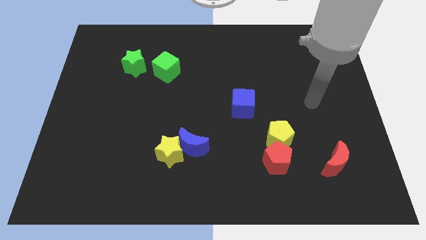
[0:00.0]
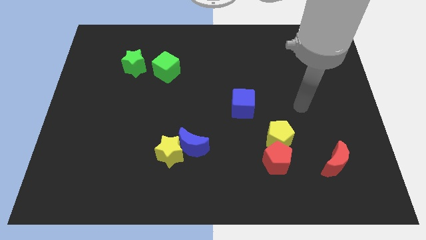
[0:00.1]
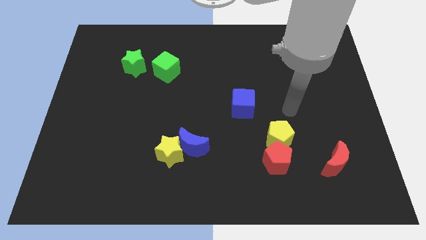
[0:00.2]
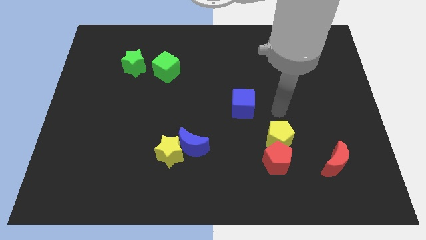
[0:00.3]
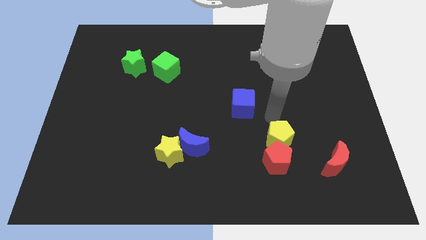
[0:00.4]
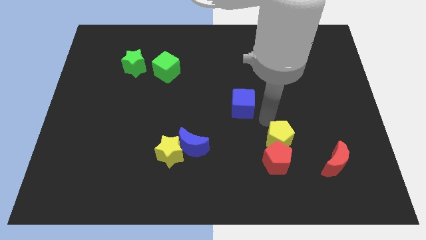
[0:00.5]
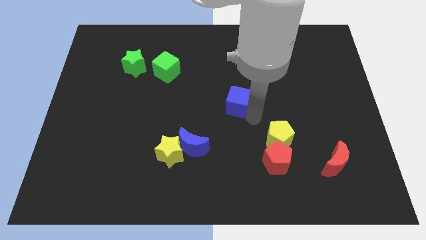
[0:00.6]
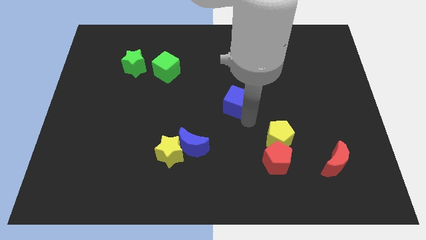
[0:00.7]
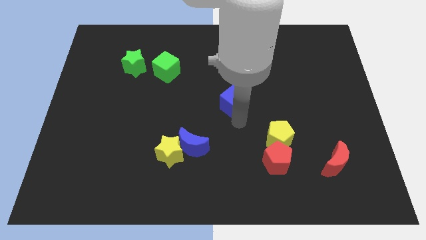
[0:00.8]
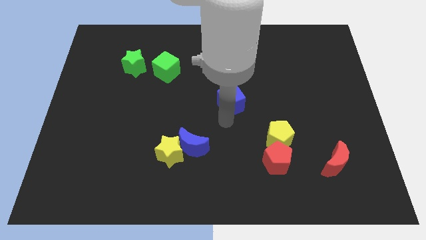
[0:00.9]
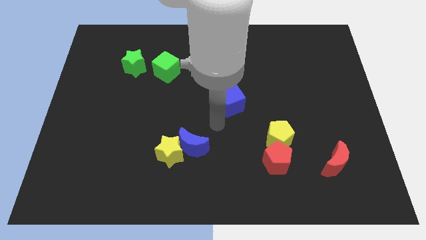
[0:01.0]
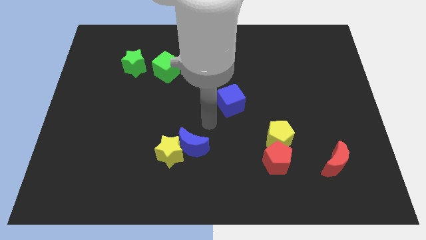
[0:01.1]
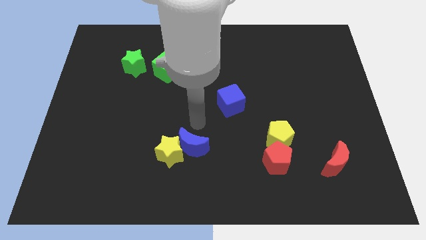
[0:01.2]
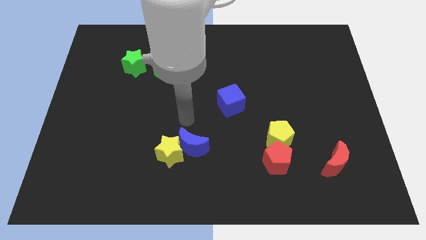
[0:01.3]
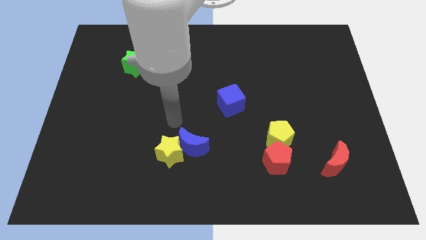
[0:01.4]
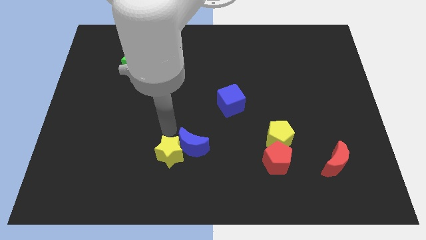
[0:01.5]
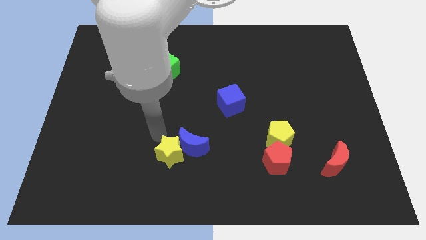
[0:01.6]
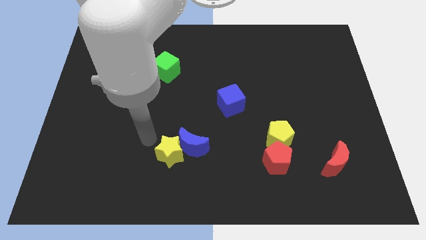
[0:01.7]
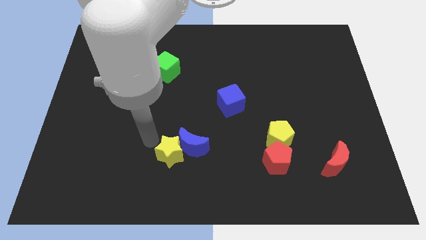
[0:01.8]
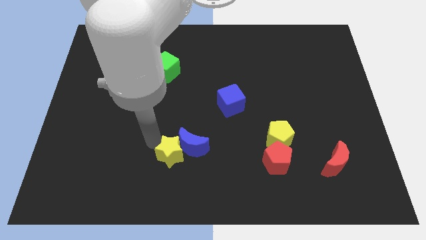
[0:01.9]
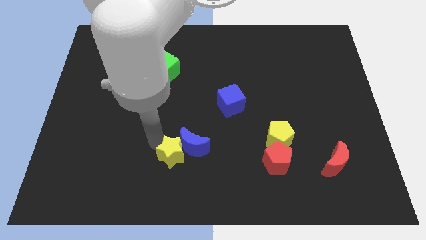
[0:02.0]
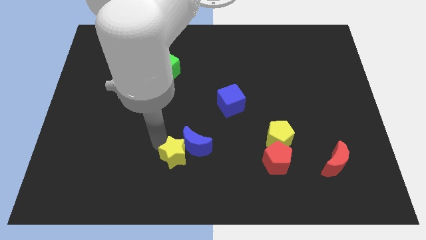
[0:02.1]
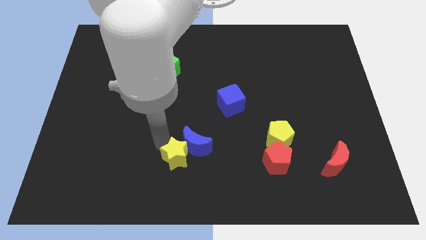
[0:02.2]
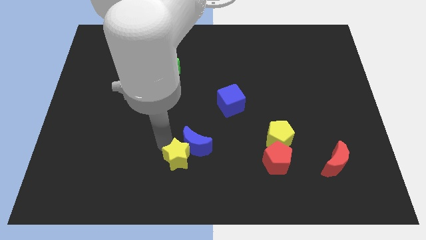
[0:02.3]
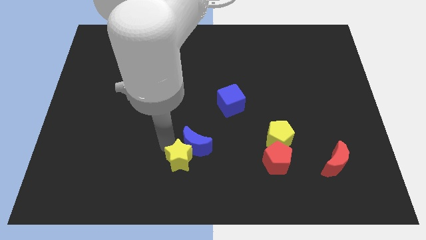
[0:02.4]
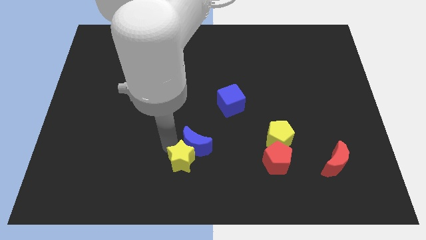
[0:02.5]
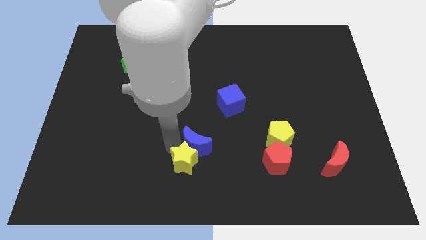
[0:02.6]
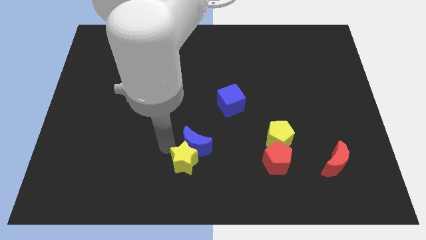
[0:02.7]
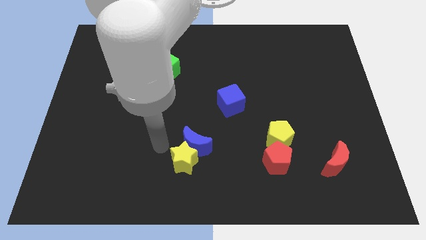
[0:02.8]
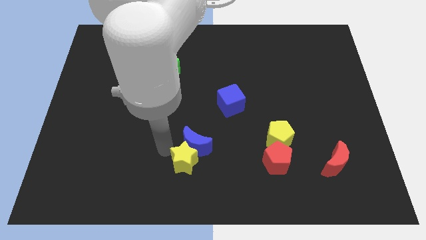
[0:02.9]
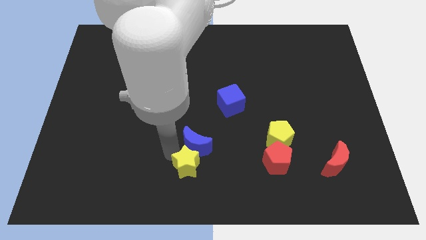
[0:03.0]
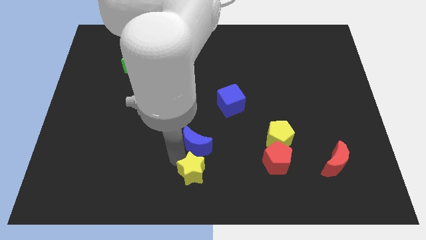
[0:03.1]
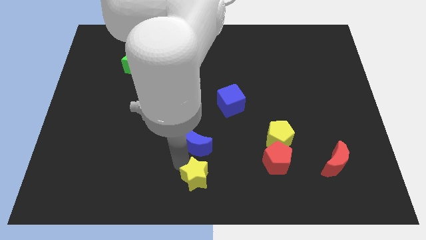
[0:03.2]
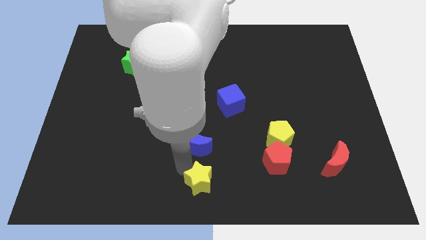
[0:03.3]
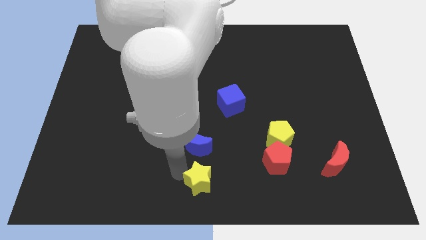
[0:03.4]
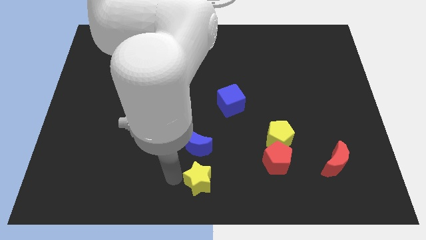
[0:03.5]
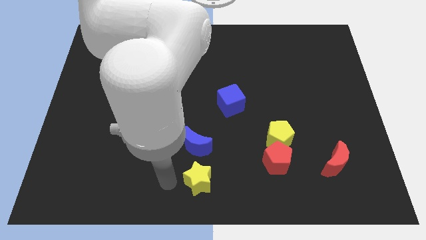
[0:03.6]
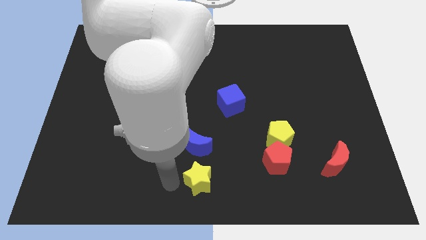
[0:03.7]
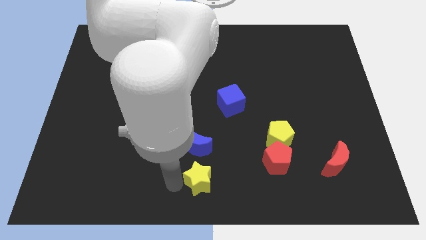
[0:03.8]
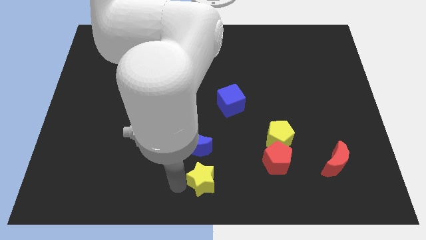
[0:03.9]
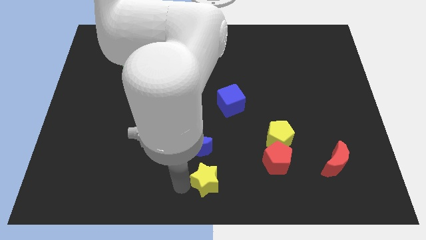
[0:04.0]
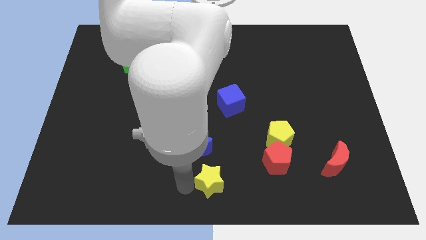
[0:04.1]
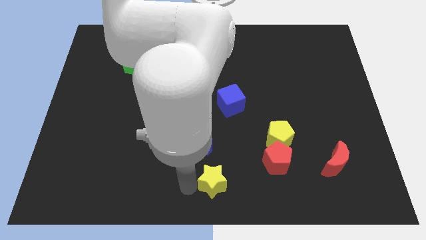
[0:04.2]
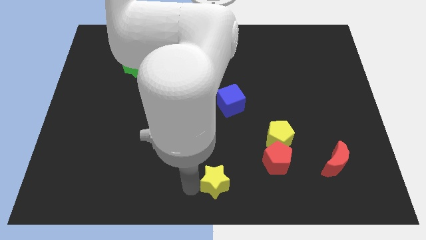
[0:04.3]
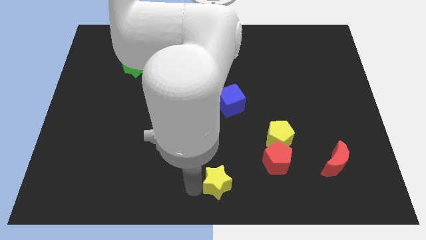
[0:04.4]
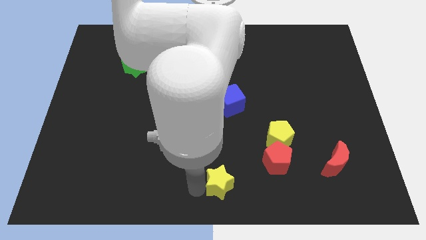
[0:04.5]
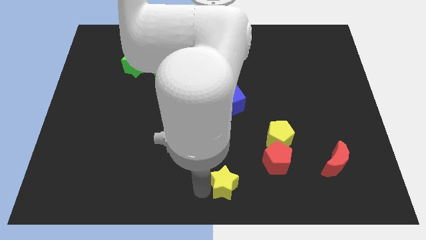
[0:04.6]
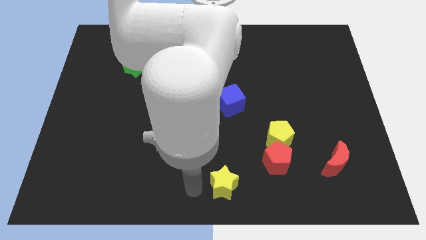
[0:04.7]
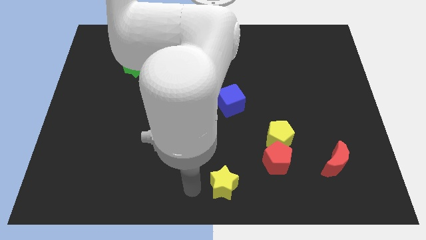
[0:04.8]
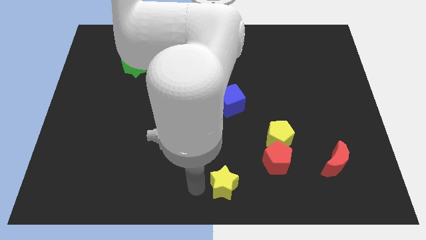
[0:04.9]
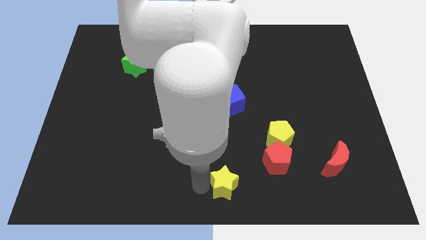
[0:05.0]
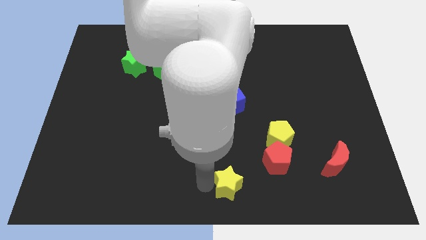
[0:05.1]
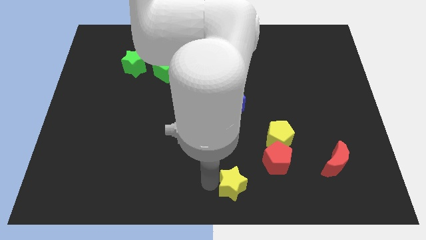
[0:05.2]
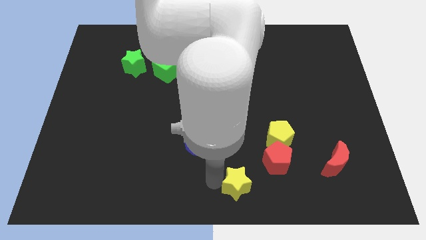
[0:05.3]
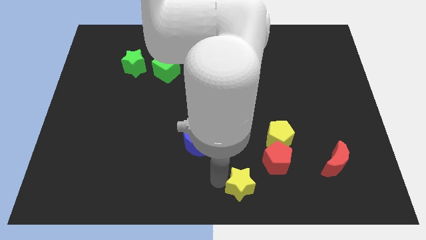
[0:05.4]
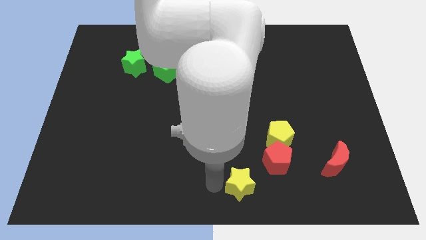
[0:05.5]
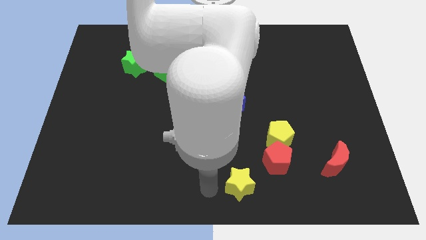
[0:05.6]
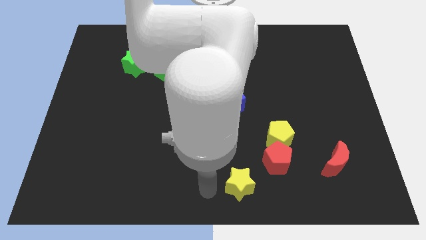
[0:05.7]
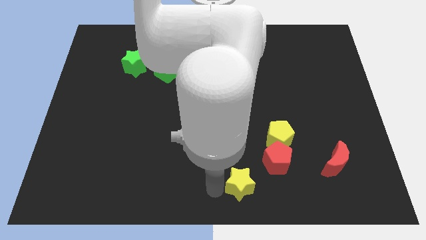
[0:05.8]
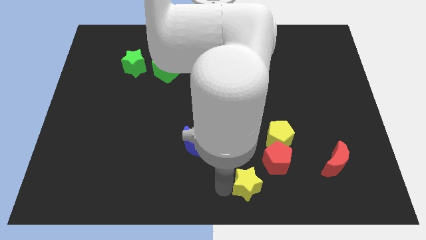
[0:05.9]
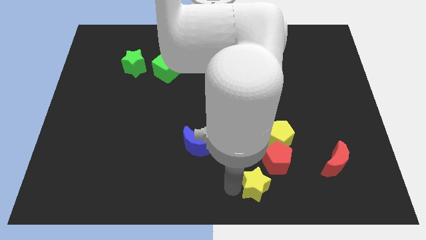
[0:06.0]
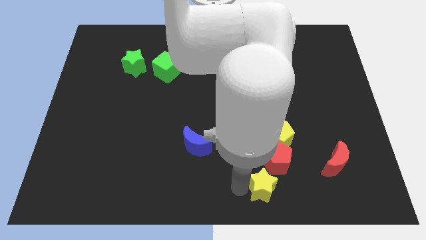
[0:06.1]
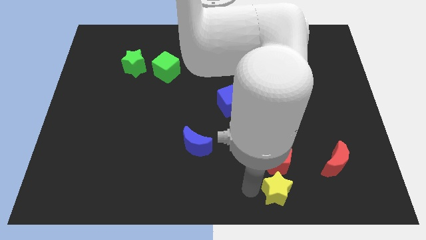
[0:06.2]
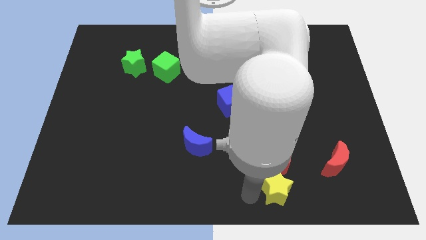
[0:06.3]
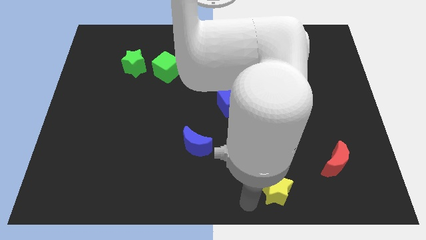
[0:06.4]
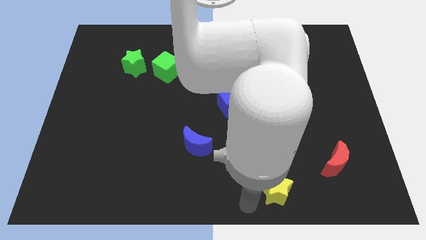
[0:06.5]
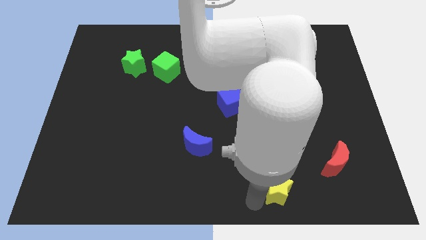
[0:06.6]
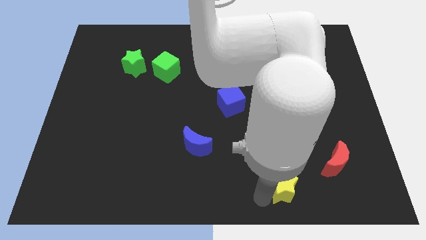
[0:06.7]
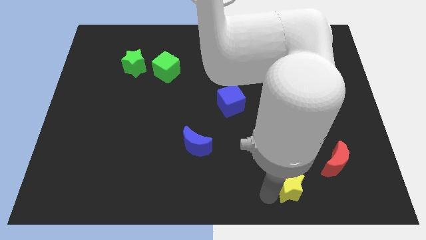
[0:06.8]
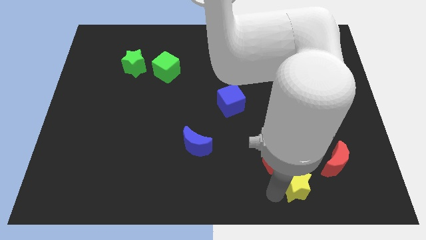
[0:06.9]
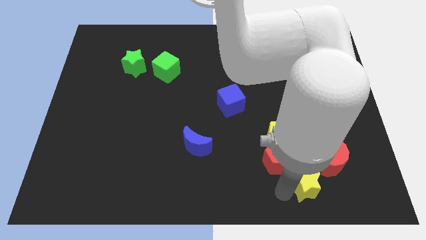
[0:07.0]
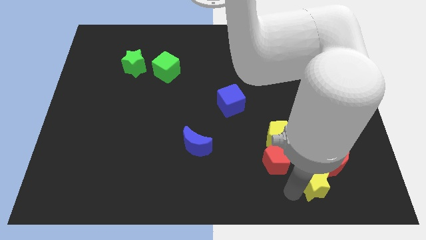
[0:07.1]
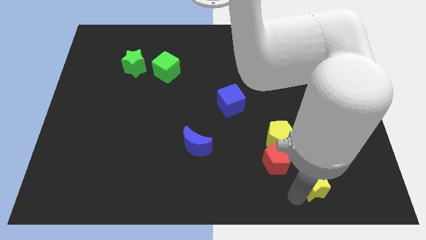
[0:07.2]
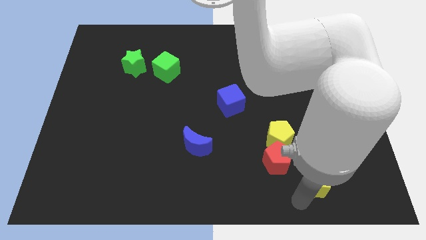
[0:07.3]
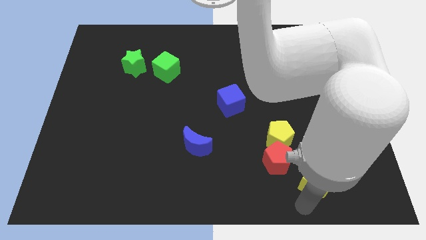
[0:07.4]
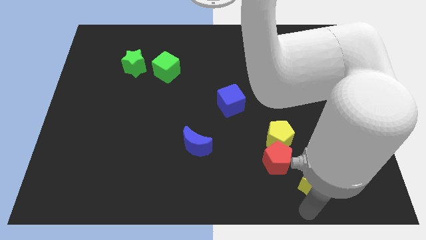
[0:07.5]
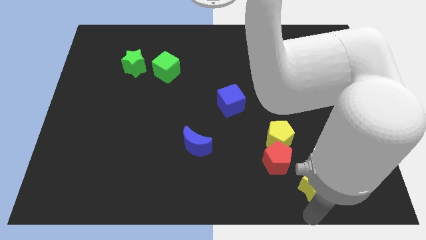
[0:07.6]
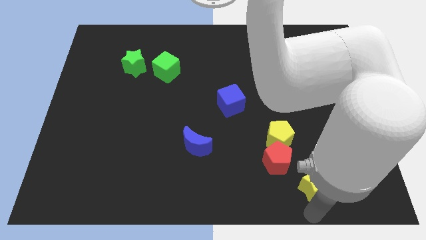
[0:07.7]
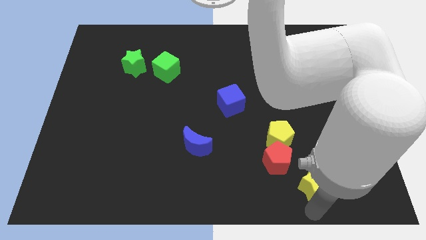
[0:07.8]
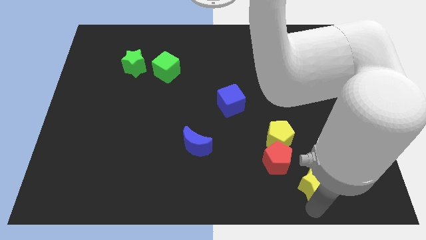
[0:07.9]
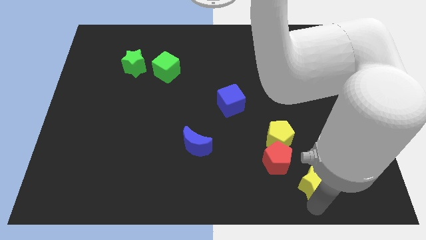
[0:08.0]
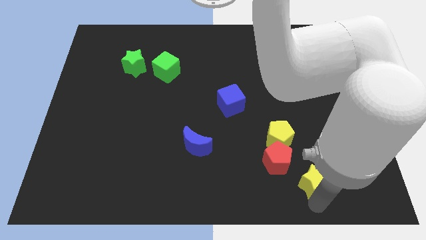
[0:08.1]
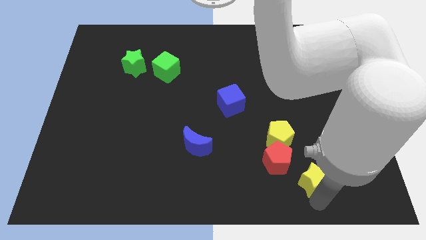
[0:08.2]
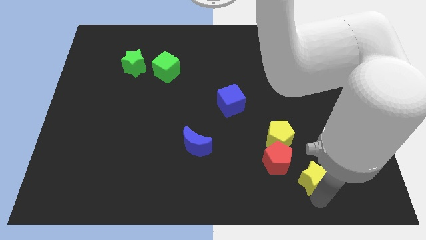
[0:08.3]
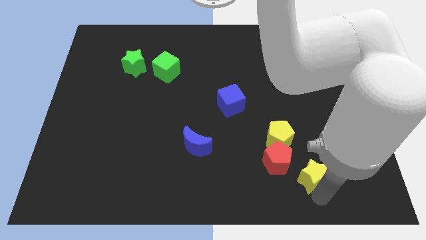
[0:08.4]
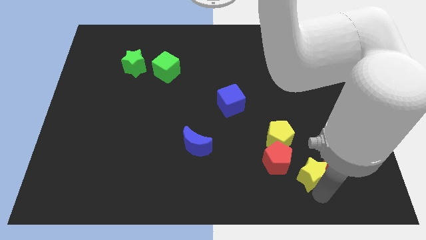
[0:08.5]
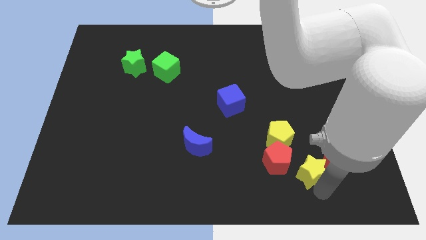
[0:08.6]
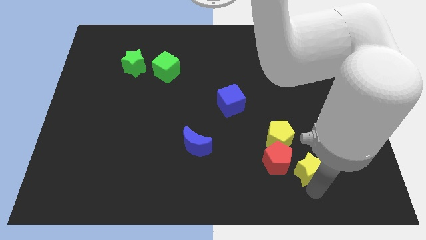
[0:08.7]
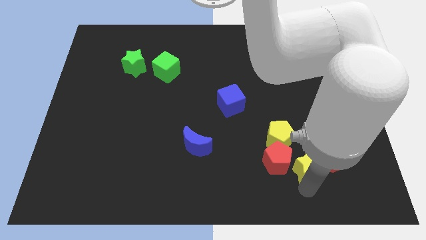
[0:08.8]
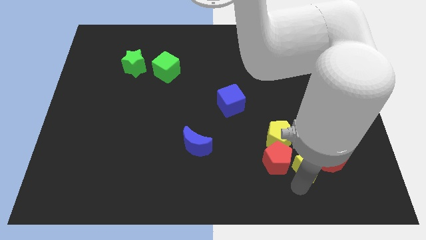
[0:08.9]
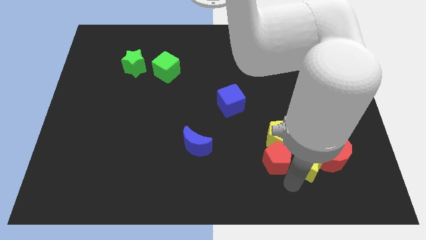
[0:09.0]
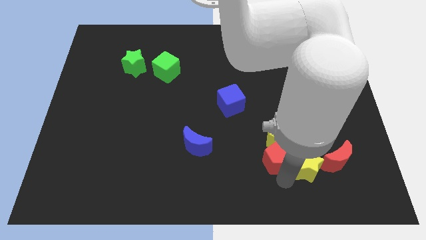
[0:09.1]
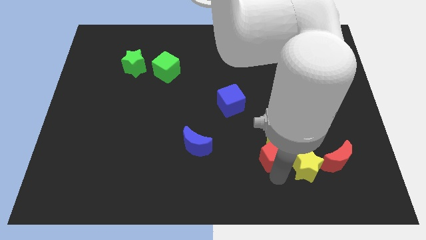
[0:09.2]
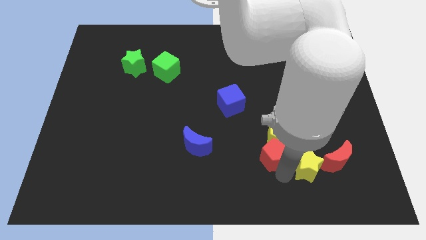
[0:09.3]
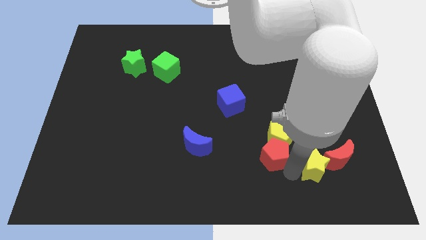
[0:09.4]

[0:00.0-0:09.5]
slide the yellow star close to the red moon
